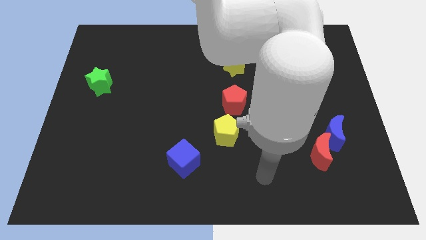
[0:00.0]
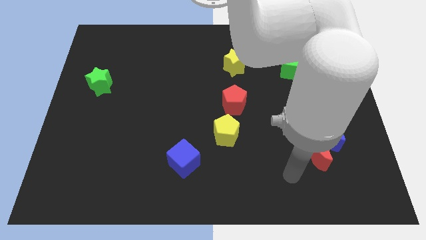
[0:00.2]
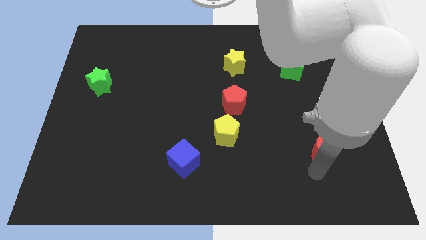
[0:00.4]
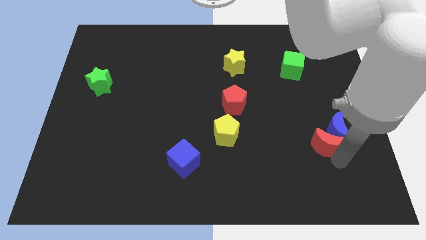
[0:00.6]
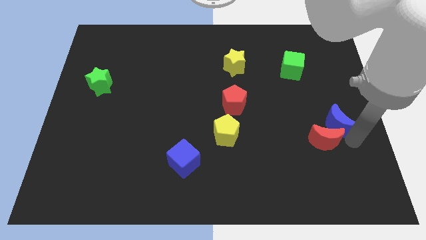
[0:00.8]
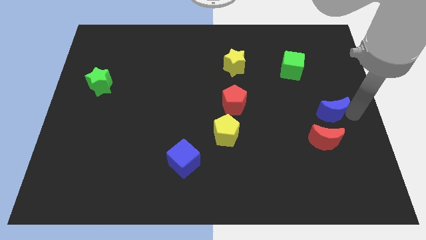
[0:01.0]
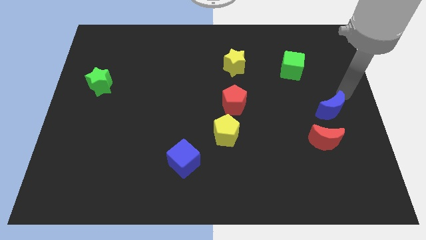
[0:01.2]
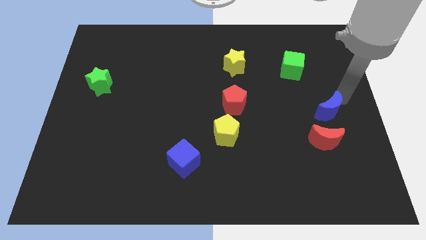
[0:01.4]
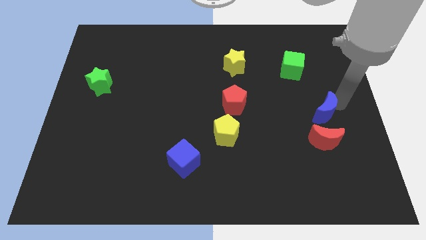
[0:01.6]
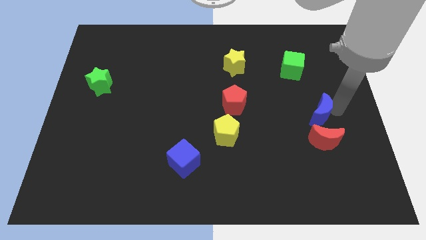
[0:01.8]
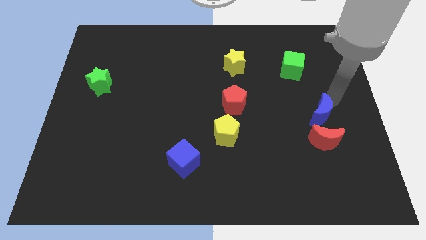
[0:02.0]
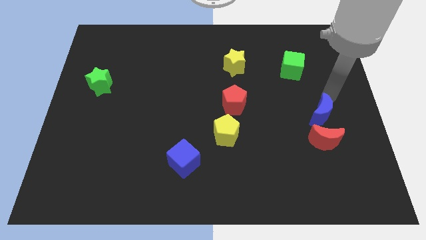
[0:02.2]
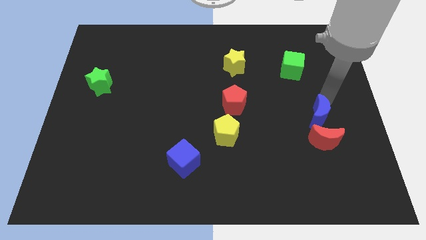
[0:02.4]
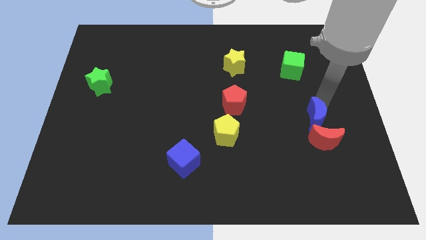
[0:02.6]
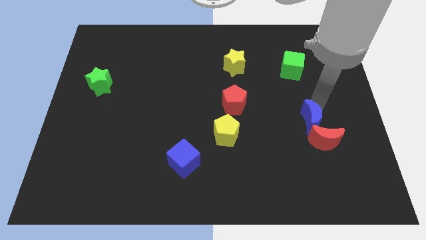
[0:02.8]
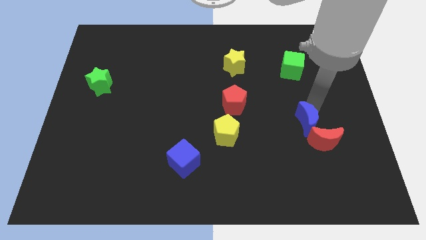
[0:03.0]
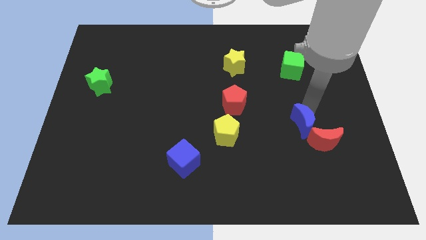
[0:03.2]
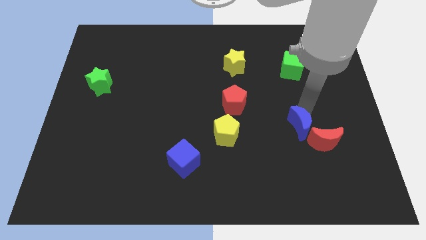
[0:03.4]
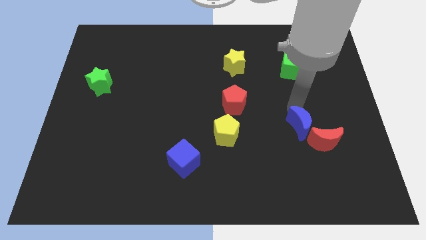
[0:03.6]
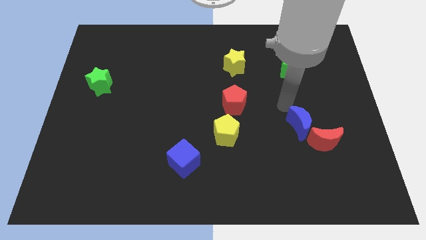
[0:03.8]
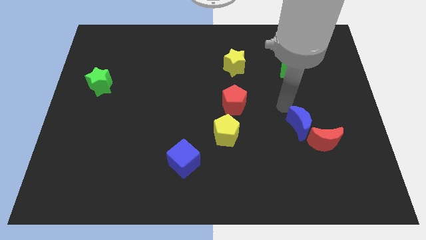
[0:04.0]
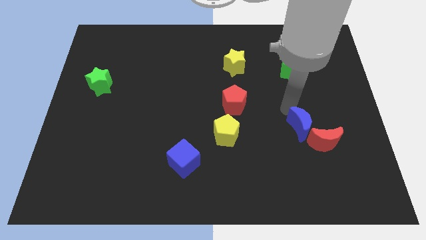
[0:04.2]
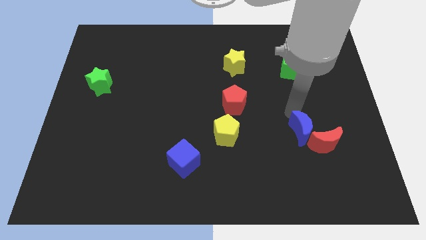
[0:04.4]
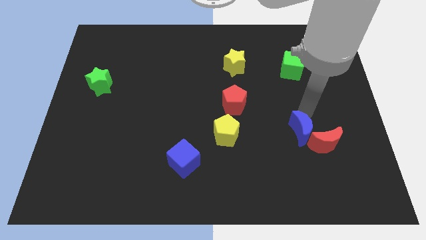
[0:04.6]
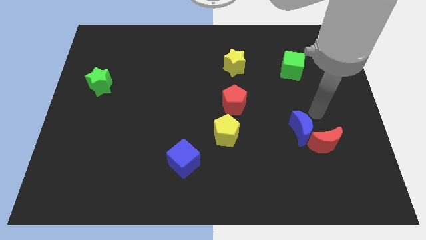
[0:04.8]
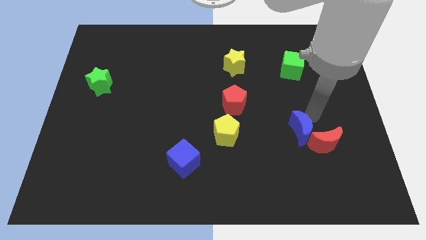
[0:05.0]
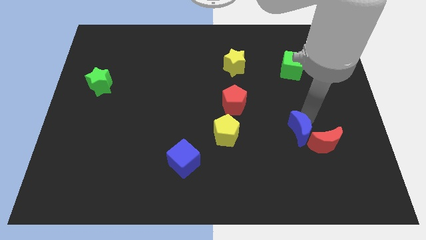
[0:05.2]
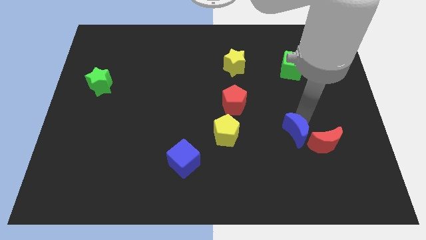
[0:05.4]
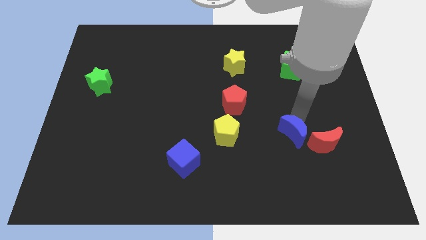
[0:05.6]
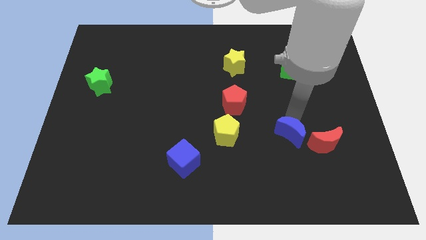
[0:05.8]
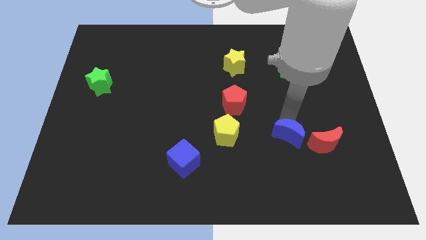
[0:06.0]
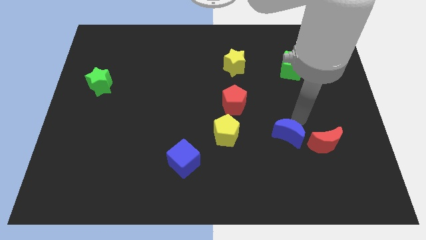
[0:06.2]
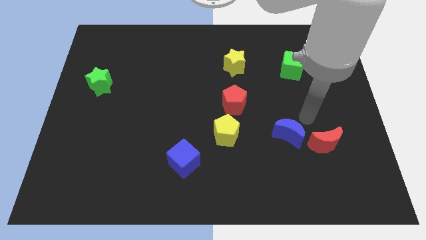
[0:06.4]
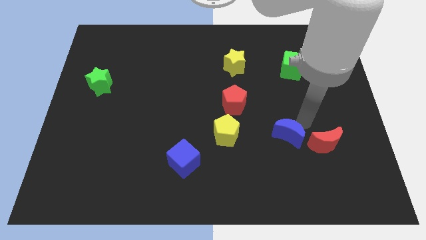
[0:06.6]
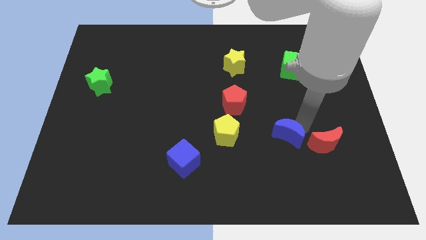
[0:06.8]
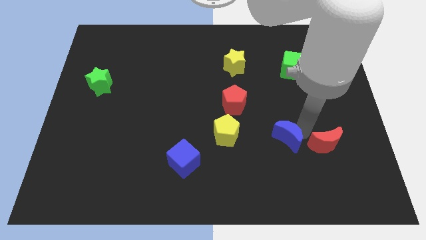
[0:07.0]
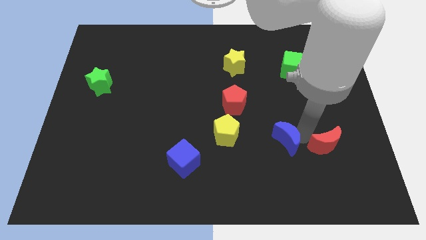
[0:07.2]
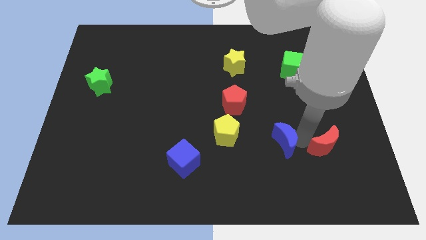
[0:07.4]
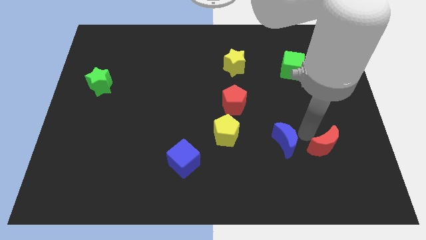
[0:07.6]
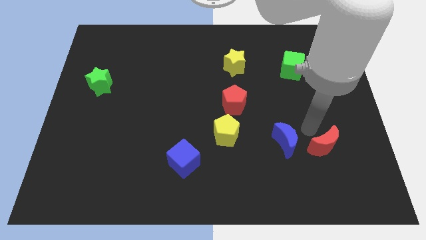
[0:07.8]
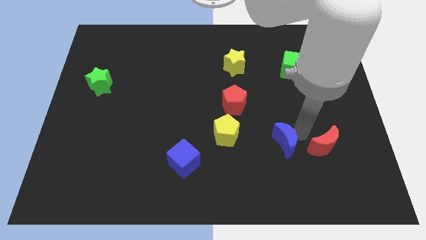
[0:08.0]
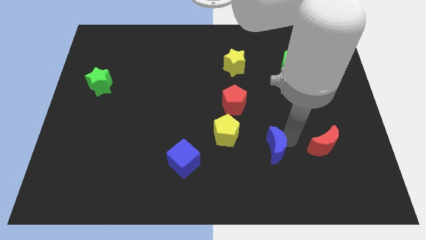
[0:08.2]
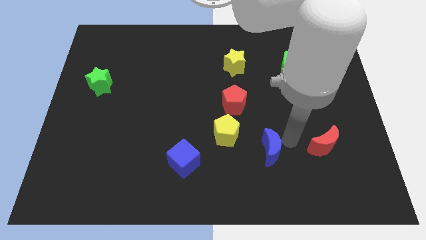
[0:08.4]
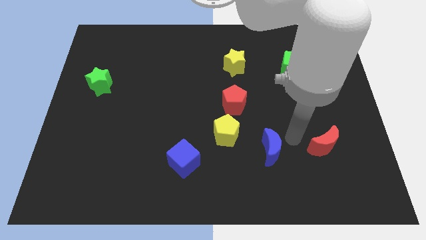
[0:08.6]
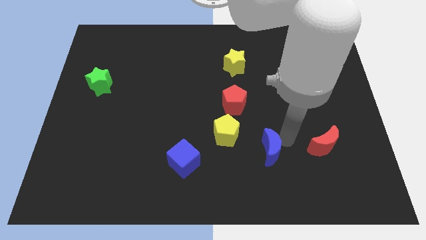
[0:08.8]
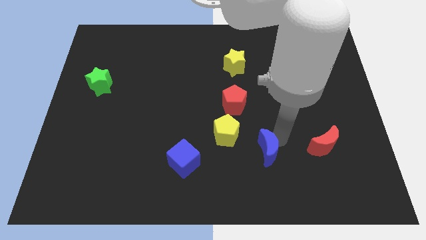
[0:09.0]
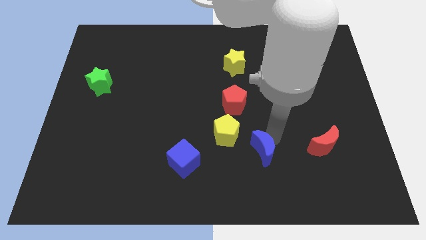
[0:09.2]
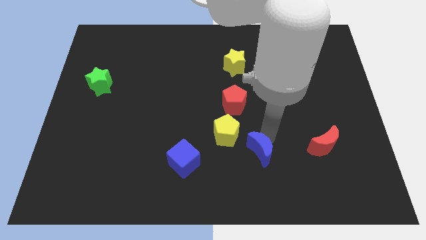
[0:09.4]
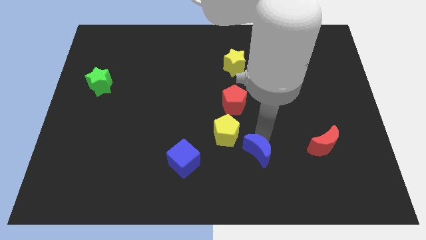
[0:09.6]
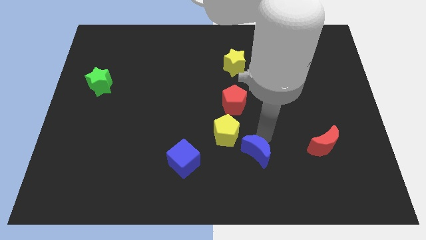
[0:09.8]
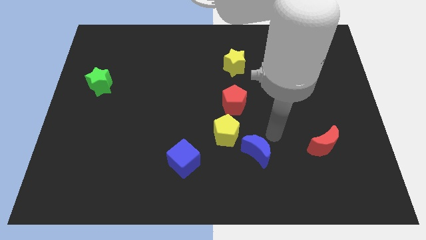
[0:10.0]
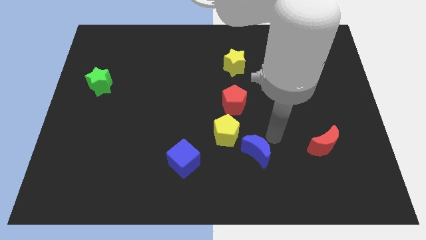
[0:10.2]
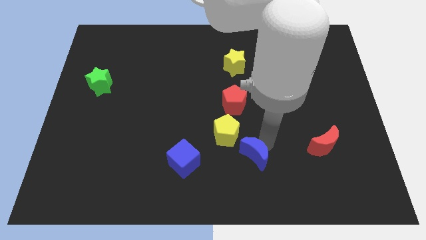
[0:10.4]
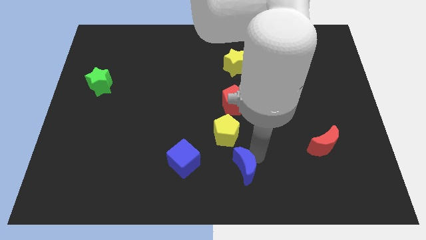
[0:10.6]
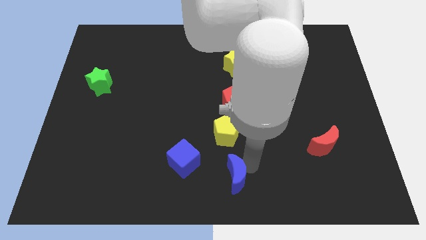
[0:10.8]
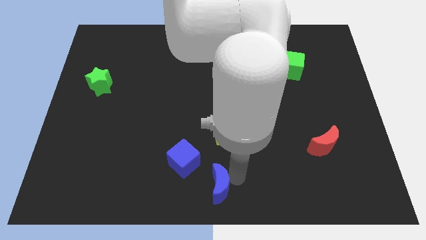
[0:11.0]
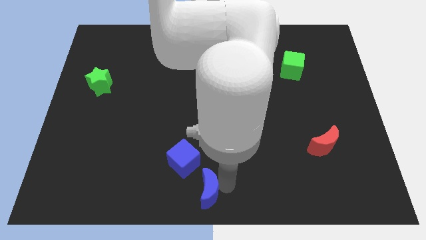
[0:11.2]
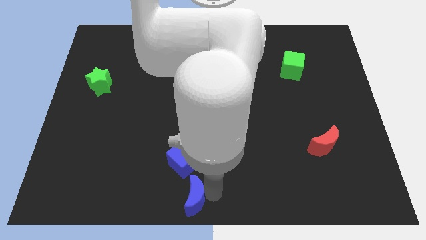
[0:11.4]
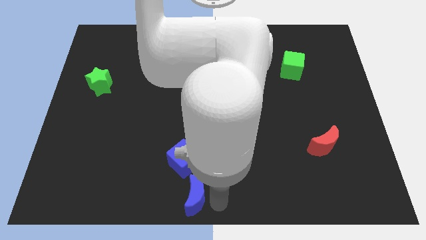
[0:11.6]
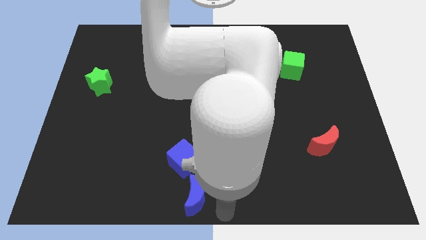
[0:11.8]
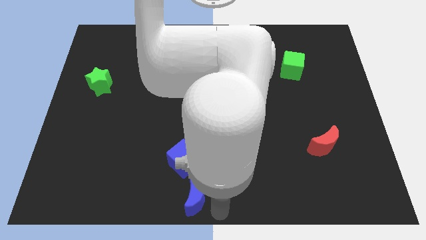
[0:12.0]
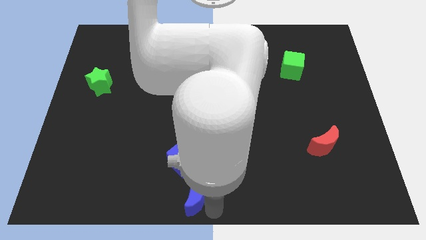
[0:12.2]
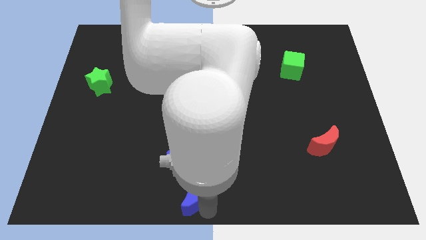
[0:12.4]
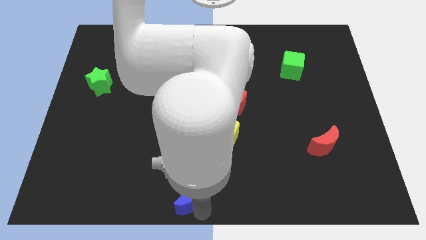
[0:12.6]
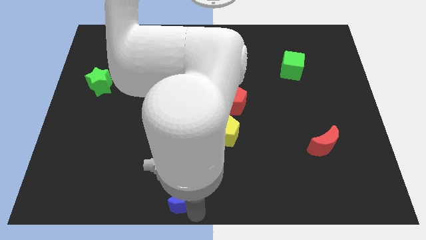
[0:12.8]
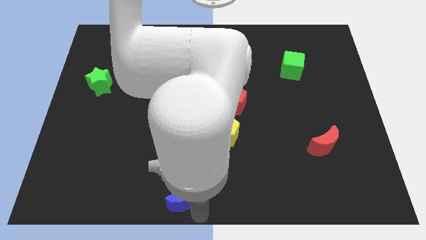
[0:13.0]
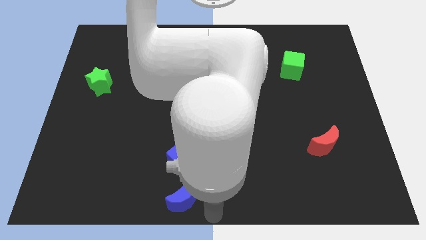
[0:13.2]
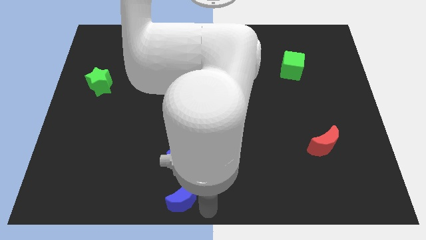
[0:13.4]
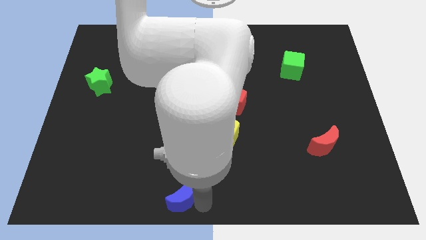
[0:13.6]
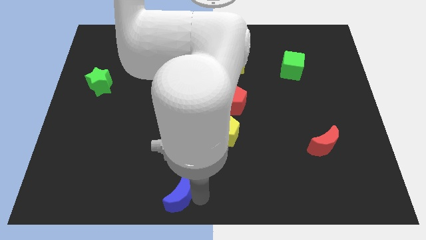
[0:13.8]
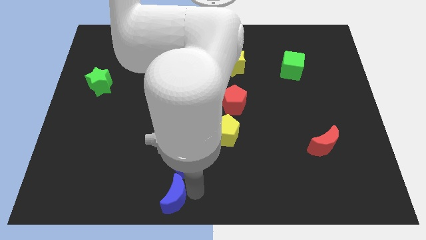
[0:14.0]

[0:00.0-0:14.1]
move the blue moon to the bottom left of the blue cube
